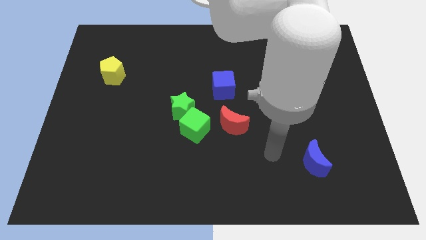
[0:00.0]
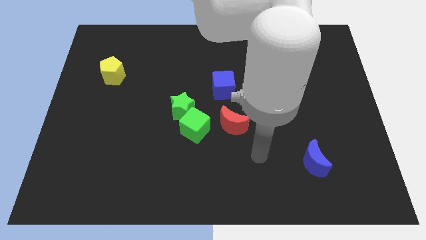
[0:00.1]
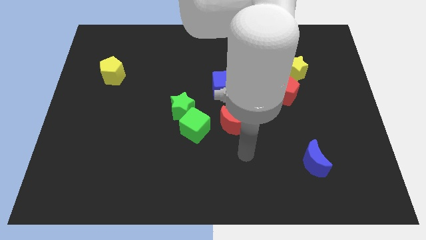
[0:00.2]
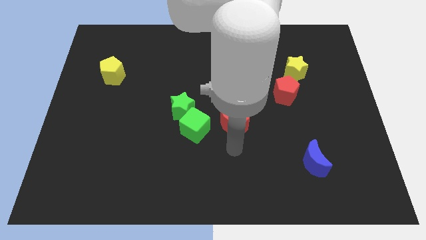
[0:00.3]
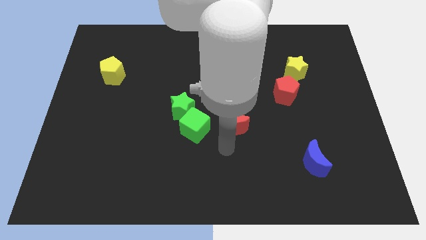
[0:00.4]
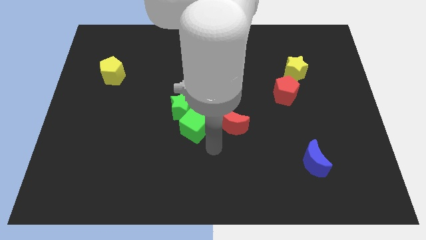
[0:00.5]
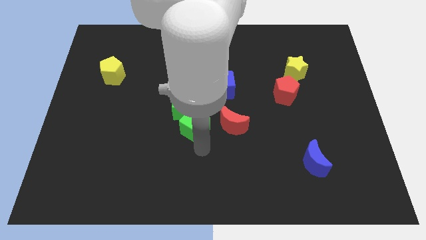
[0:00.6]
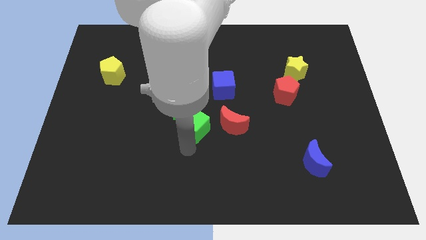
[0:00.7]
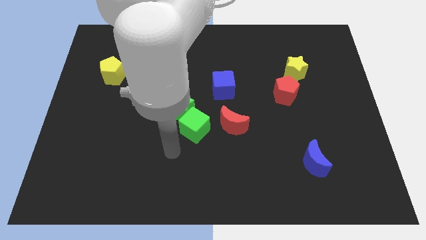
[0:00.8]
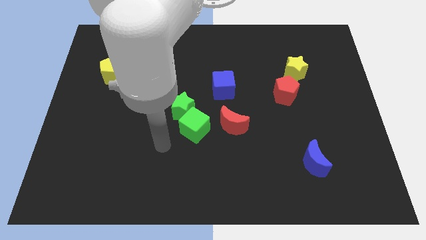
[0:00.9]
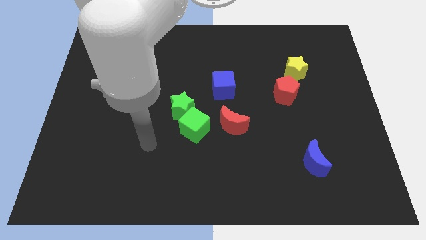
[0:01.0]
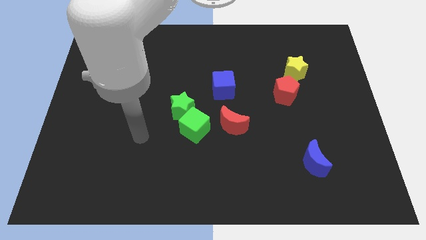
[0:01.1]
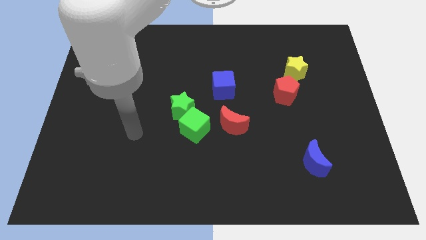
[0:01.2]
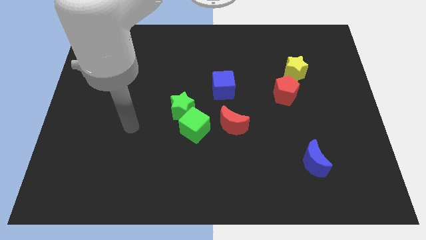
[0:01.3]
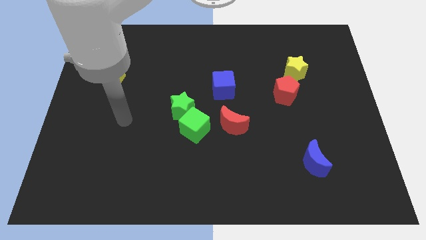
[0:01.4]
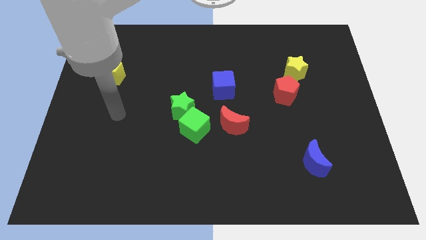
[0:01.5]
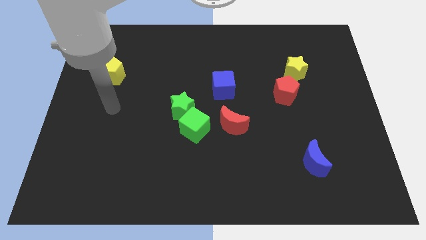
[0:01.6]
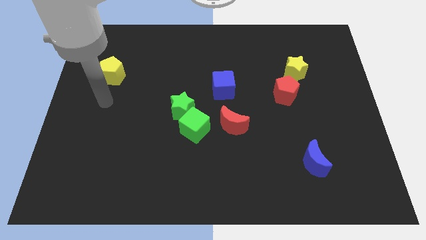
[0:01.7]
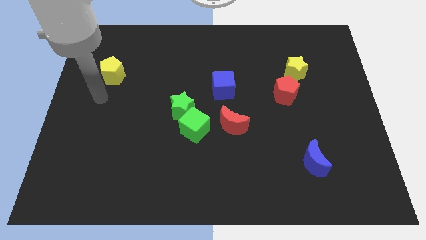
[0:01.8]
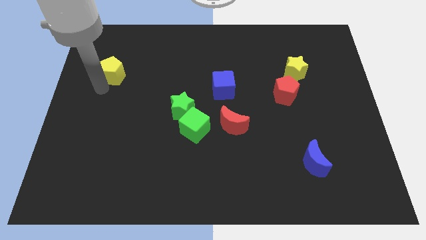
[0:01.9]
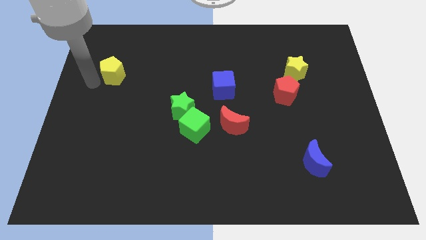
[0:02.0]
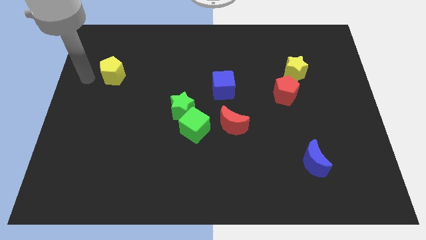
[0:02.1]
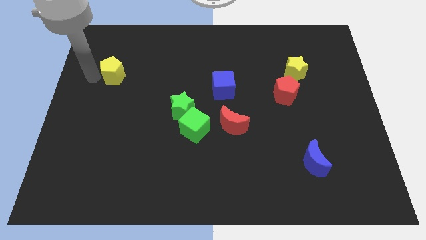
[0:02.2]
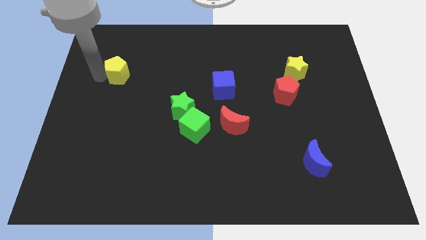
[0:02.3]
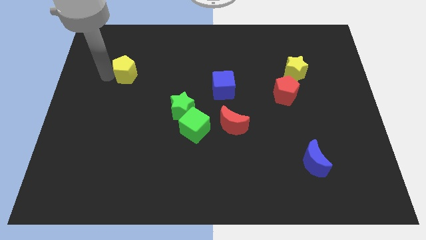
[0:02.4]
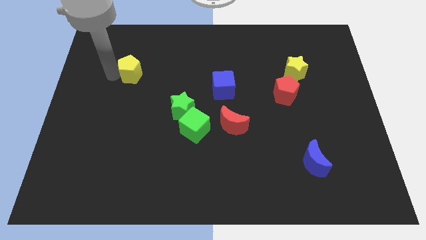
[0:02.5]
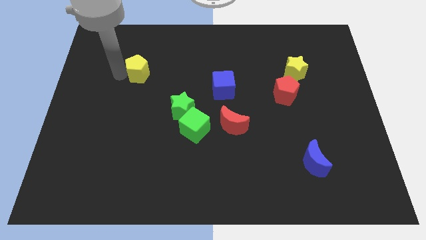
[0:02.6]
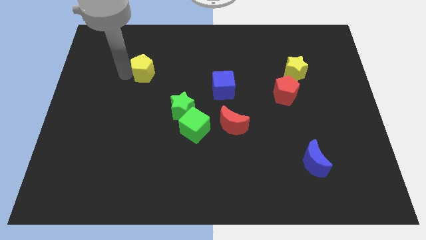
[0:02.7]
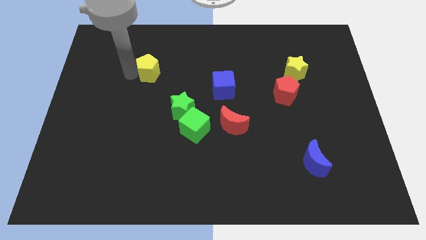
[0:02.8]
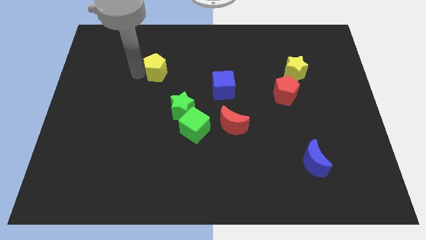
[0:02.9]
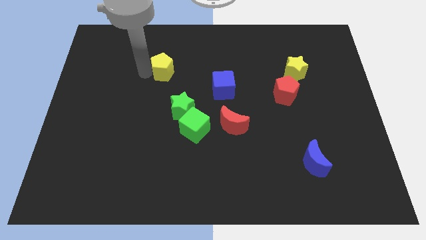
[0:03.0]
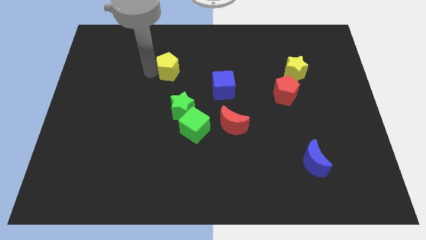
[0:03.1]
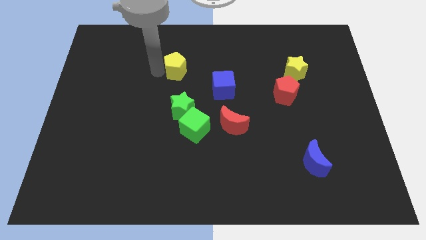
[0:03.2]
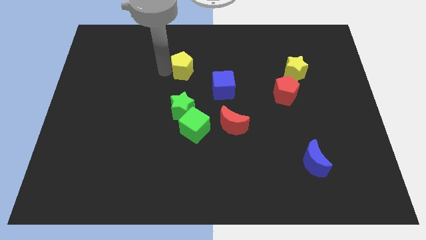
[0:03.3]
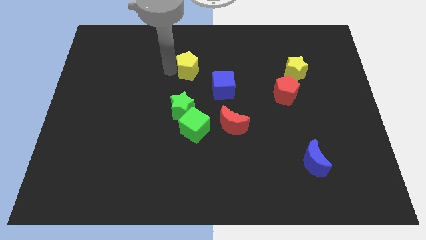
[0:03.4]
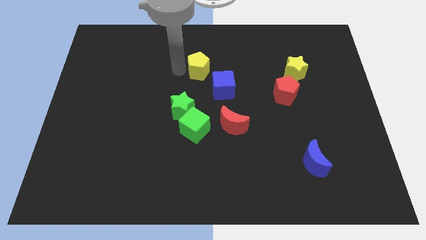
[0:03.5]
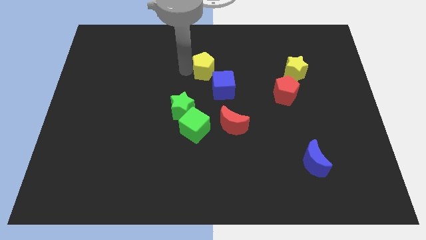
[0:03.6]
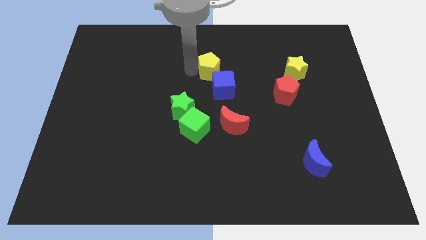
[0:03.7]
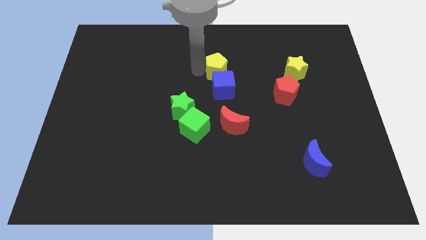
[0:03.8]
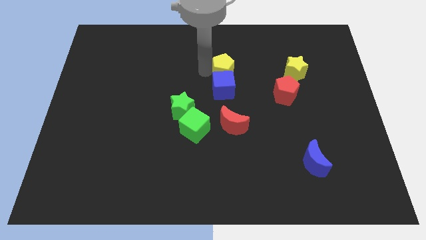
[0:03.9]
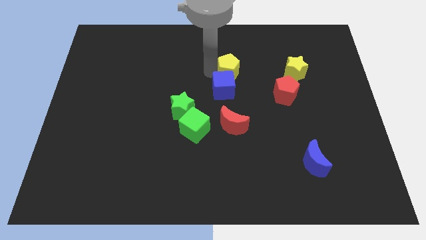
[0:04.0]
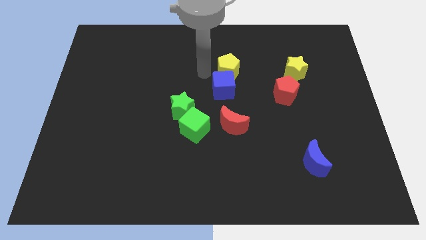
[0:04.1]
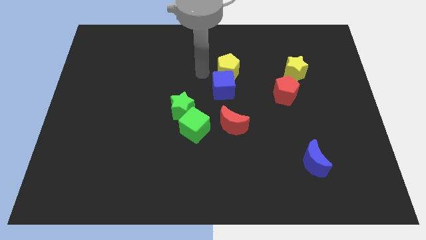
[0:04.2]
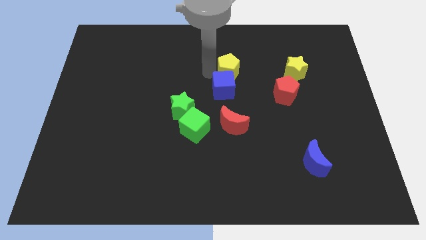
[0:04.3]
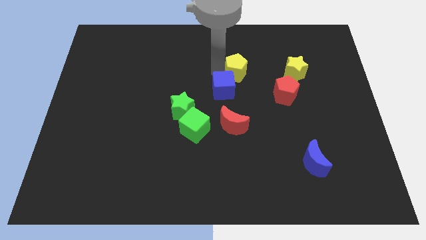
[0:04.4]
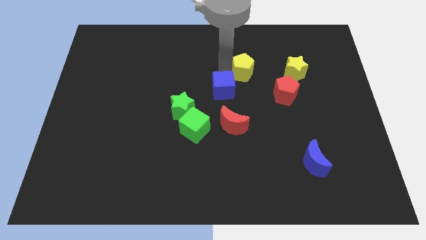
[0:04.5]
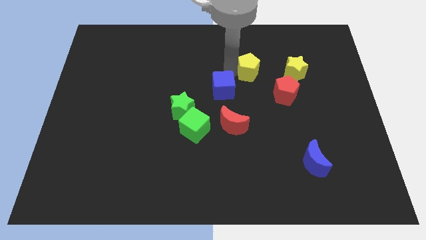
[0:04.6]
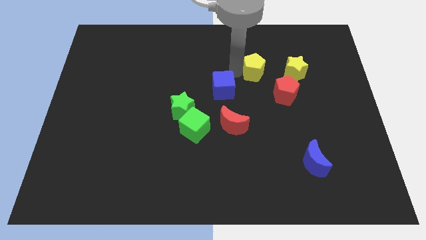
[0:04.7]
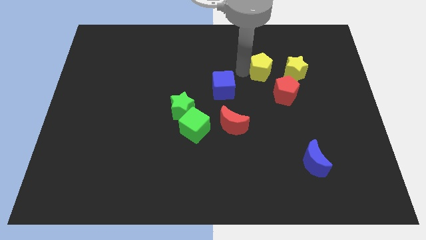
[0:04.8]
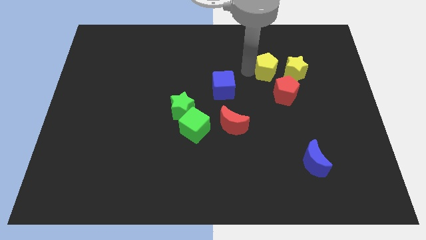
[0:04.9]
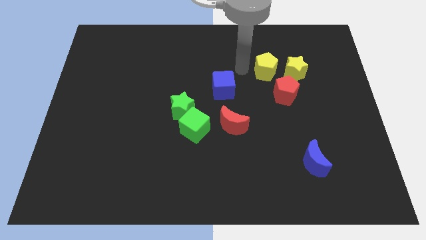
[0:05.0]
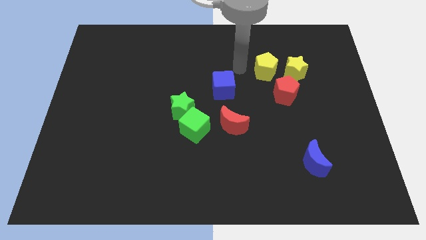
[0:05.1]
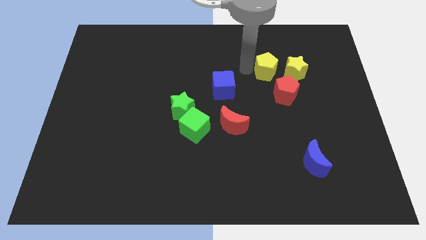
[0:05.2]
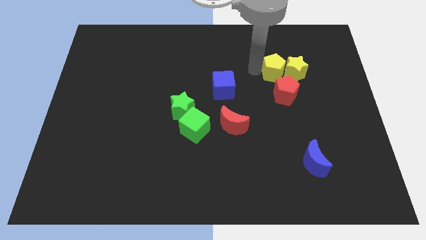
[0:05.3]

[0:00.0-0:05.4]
put the yellow pentagon towards the yellow star

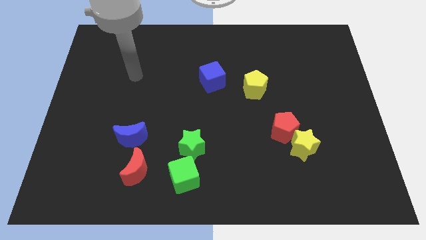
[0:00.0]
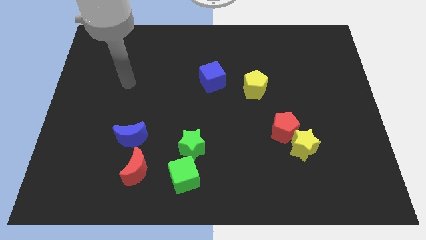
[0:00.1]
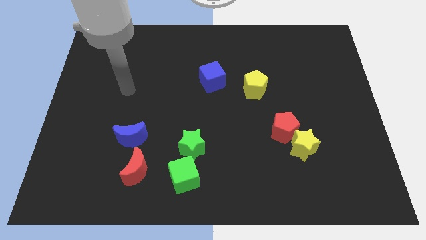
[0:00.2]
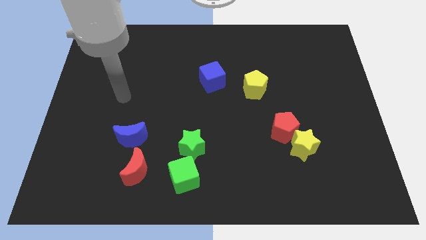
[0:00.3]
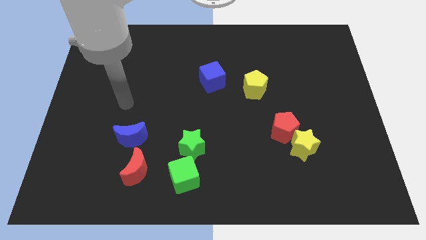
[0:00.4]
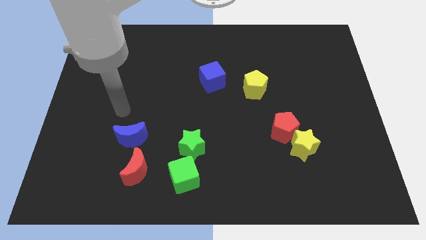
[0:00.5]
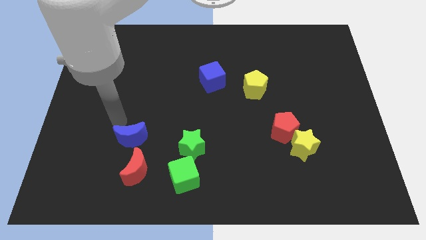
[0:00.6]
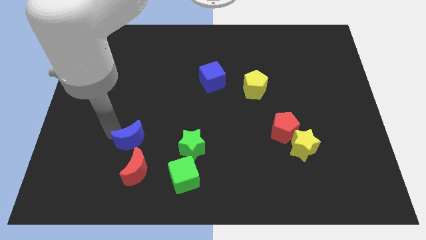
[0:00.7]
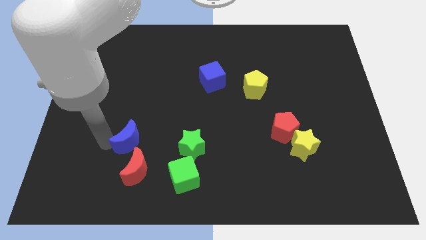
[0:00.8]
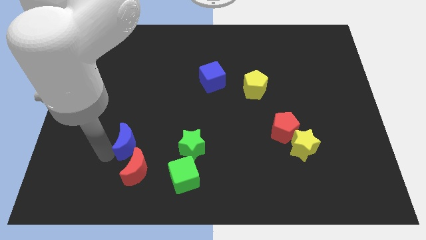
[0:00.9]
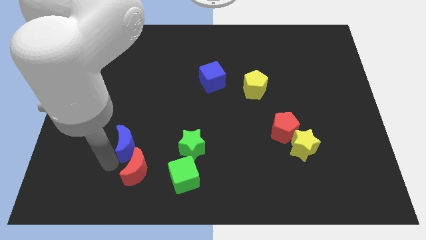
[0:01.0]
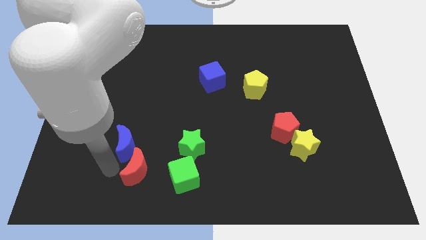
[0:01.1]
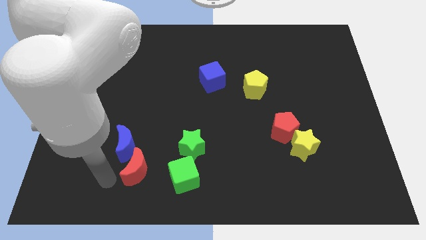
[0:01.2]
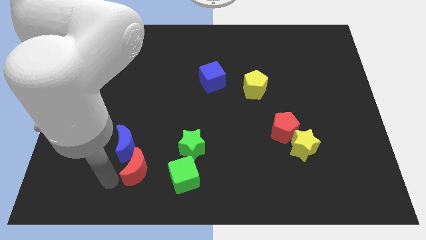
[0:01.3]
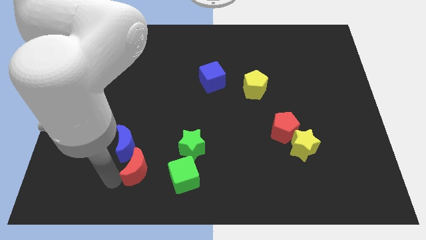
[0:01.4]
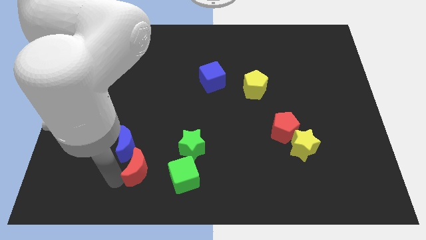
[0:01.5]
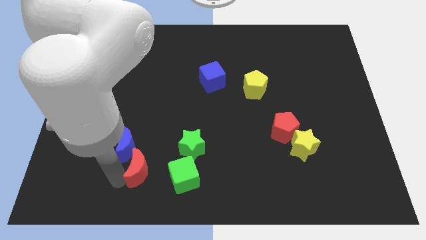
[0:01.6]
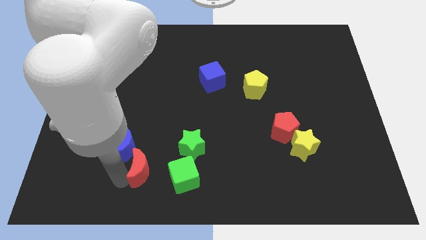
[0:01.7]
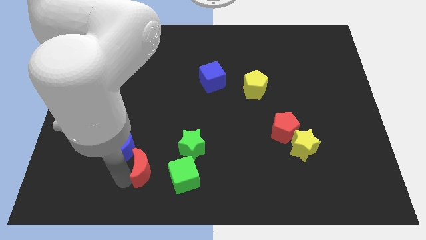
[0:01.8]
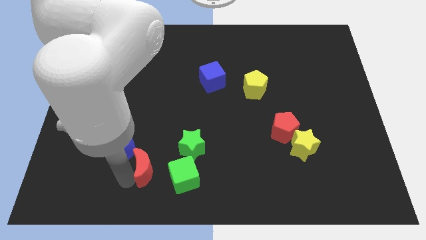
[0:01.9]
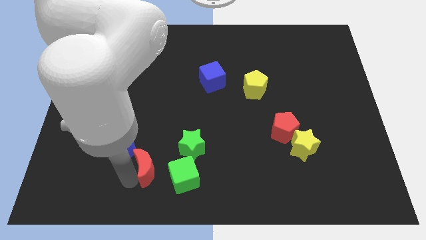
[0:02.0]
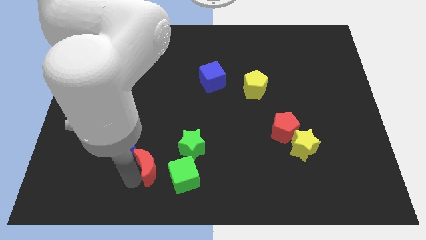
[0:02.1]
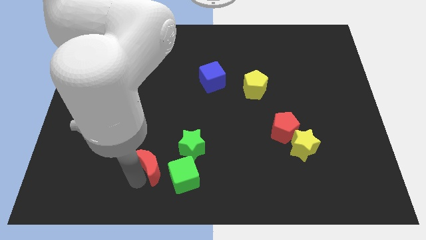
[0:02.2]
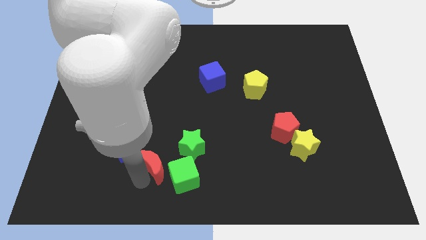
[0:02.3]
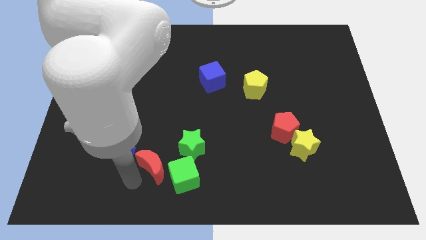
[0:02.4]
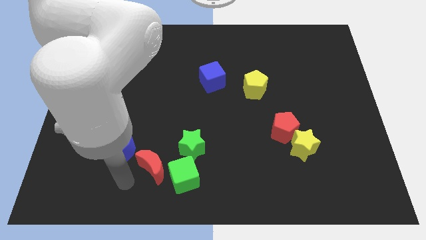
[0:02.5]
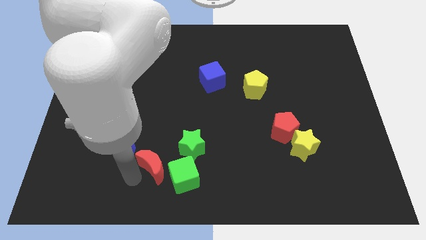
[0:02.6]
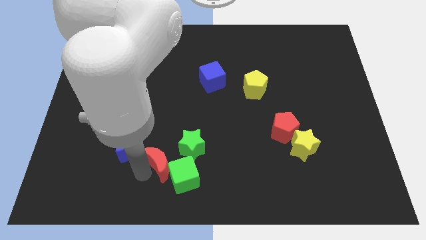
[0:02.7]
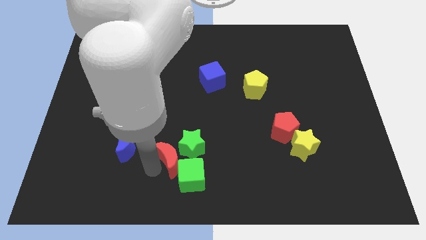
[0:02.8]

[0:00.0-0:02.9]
push the red moon to the green star
